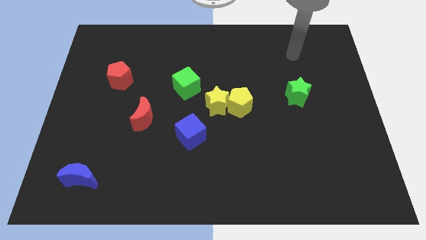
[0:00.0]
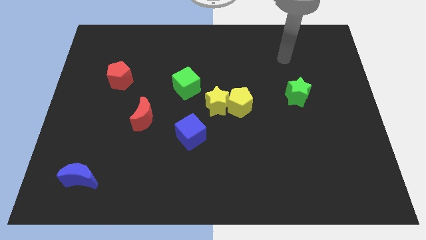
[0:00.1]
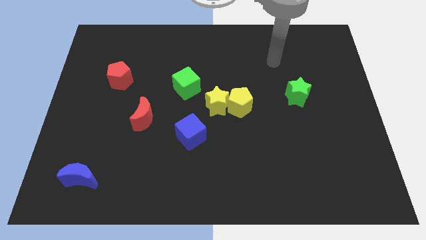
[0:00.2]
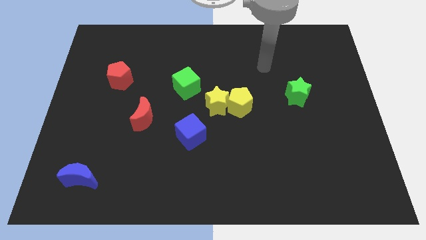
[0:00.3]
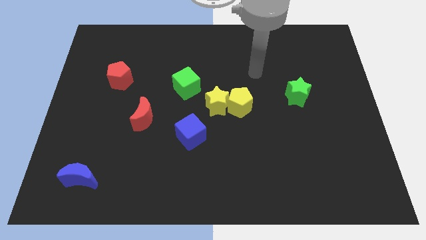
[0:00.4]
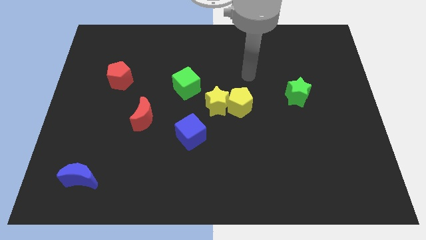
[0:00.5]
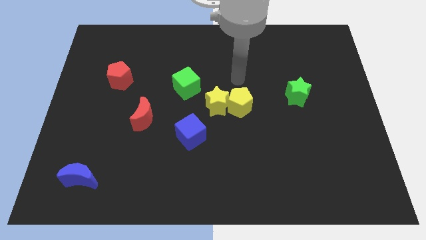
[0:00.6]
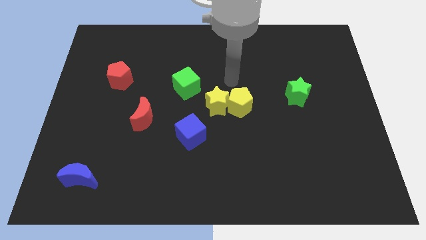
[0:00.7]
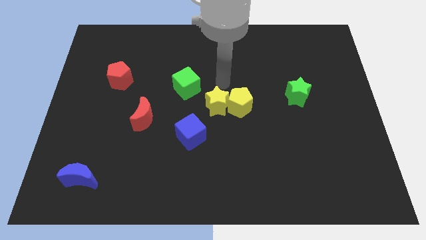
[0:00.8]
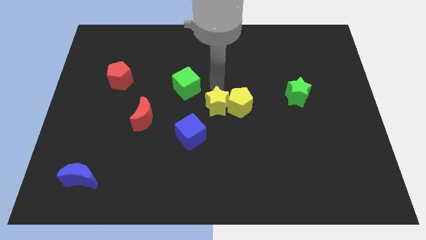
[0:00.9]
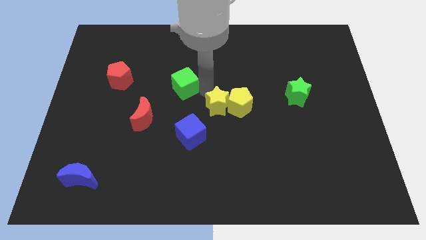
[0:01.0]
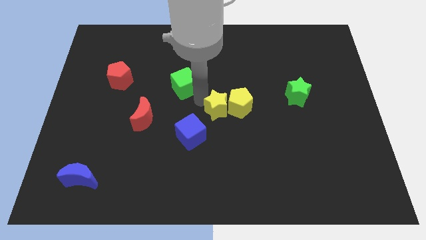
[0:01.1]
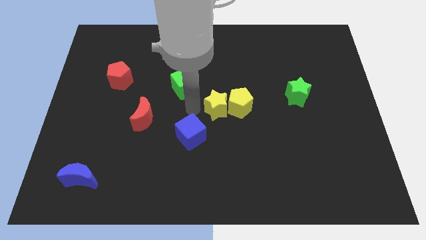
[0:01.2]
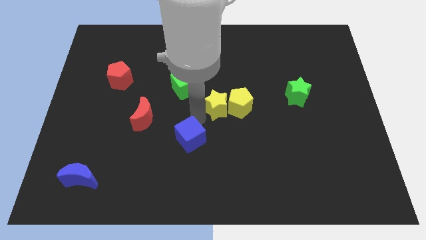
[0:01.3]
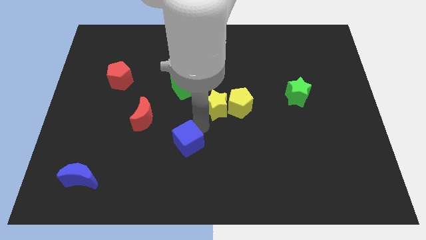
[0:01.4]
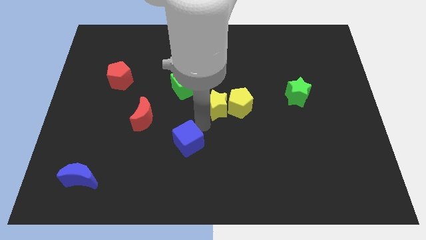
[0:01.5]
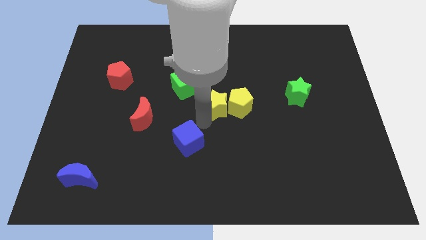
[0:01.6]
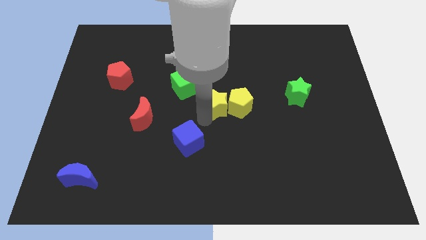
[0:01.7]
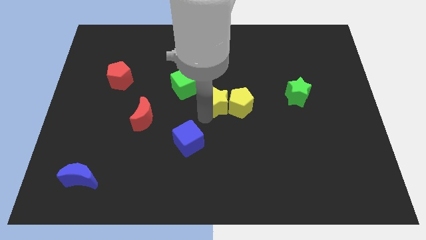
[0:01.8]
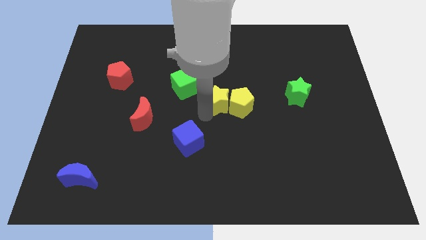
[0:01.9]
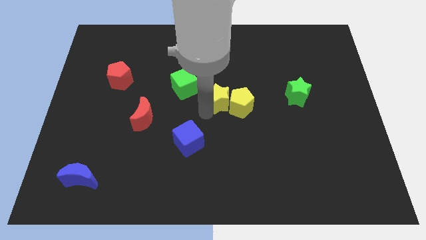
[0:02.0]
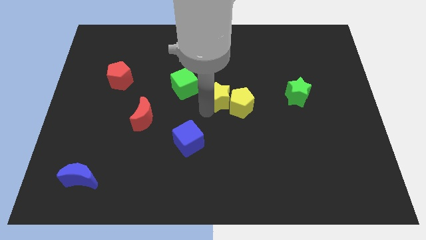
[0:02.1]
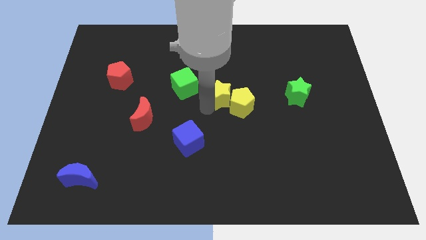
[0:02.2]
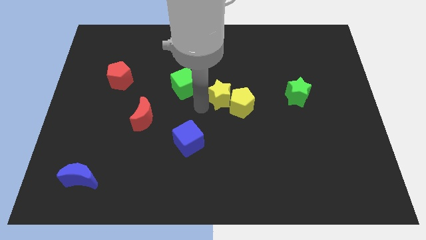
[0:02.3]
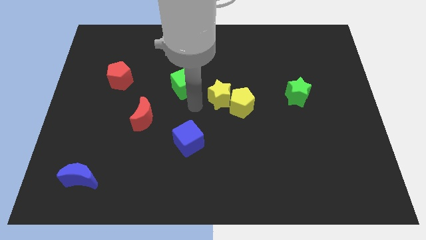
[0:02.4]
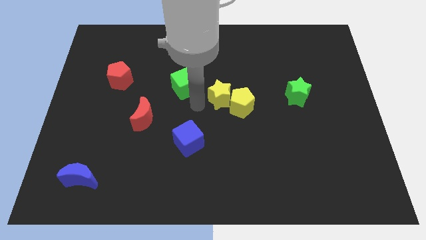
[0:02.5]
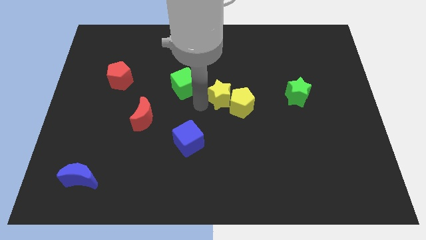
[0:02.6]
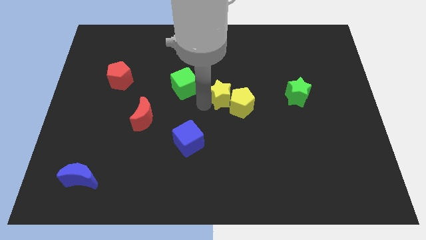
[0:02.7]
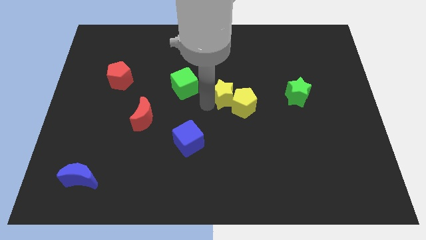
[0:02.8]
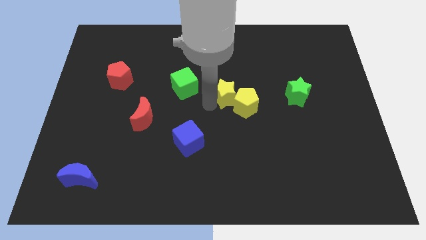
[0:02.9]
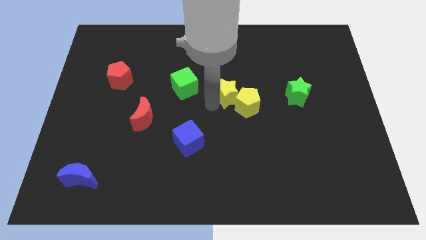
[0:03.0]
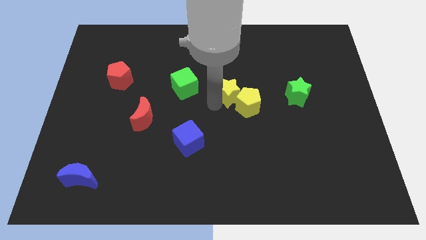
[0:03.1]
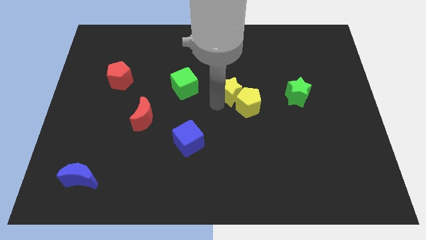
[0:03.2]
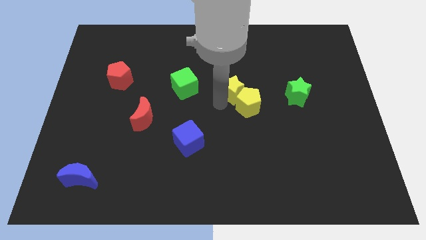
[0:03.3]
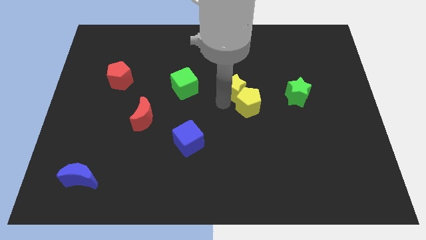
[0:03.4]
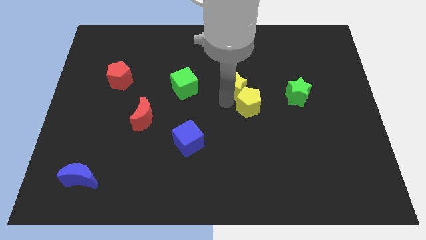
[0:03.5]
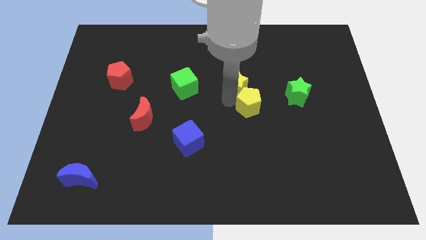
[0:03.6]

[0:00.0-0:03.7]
slide the yellow star diagonally upwards and to the right slightly

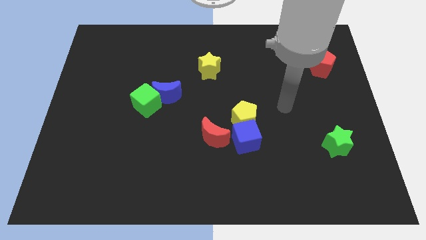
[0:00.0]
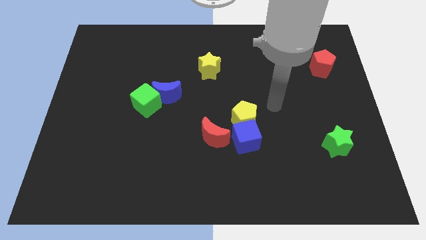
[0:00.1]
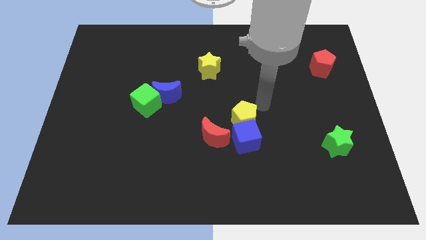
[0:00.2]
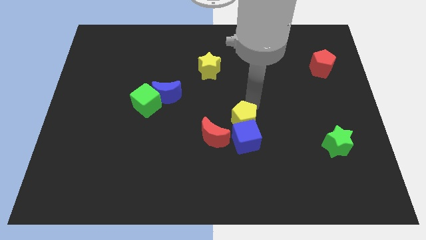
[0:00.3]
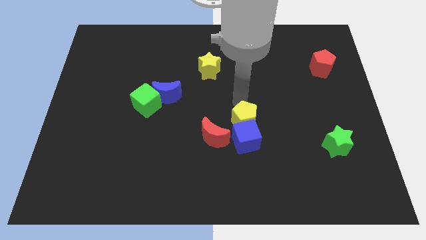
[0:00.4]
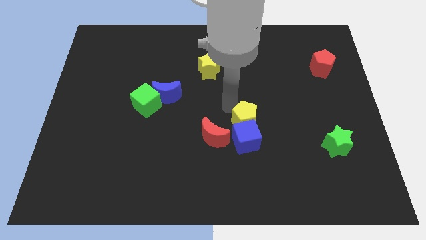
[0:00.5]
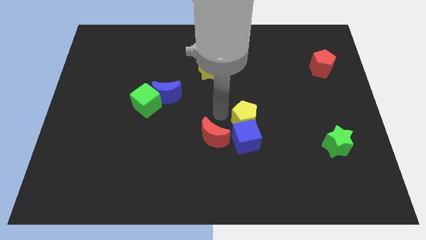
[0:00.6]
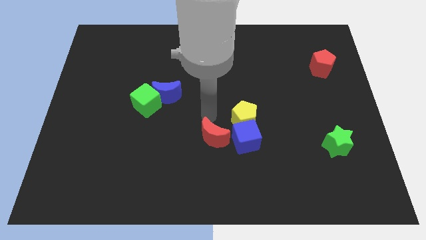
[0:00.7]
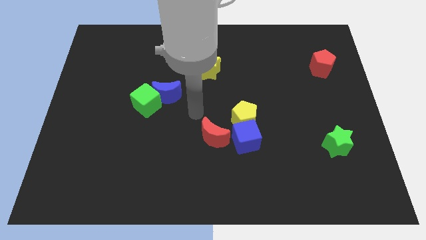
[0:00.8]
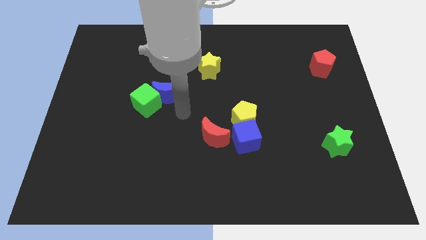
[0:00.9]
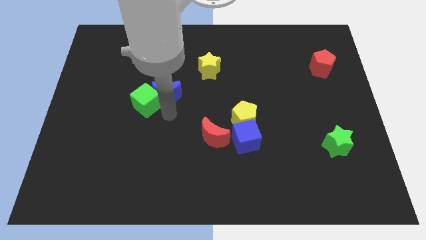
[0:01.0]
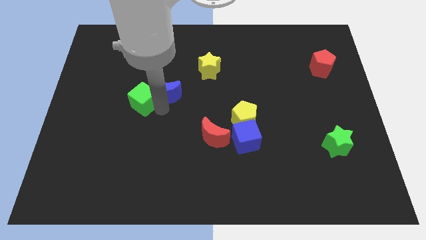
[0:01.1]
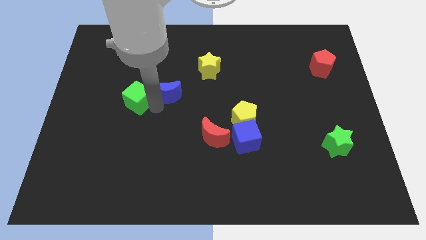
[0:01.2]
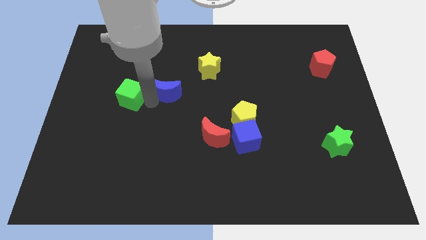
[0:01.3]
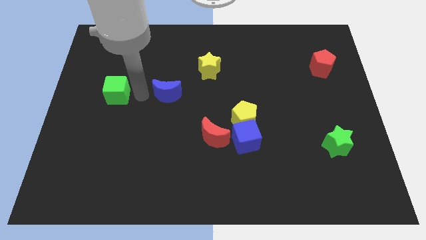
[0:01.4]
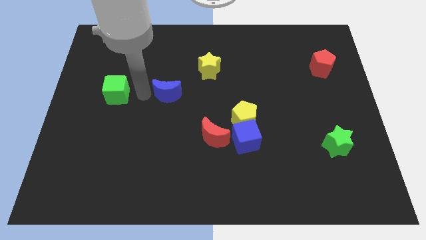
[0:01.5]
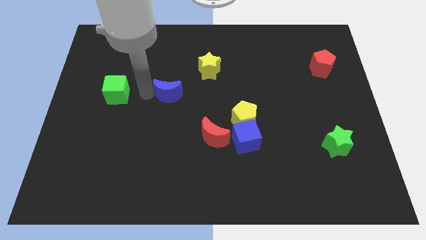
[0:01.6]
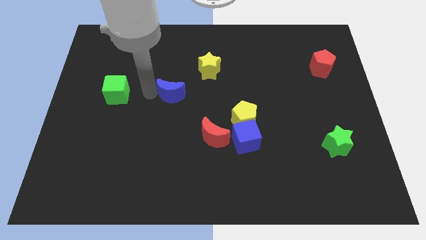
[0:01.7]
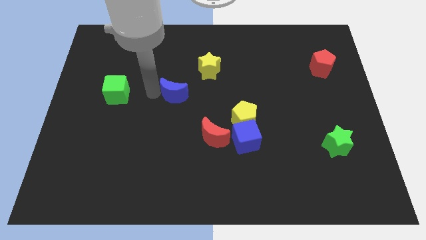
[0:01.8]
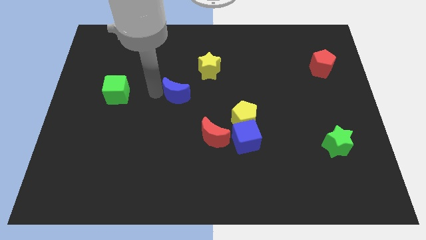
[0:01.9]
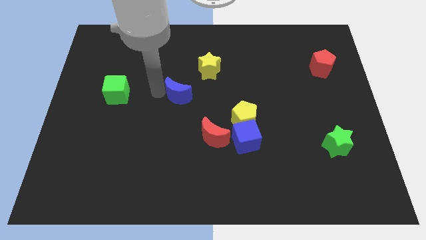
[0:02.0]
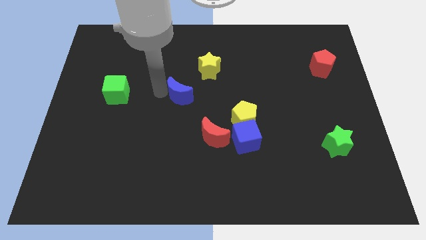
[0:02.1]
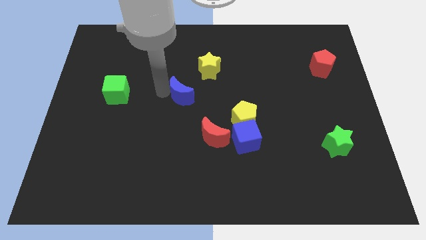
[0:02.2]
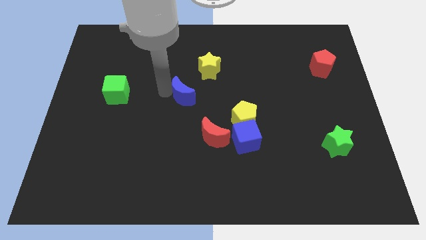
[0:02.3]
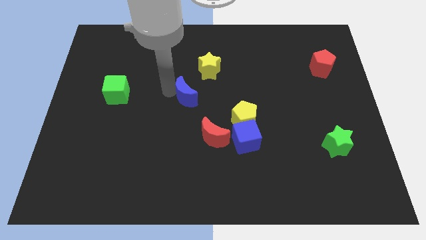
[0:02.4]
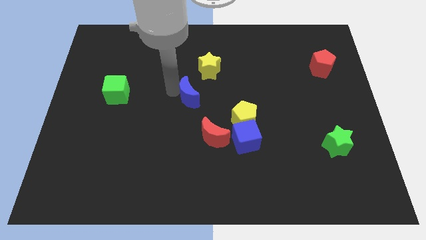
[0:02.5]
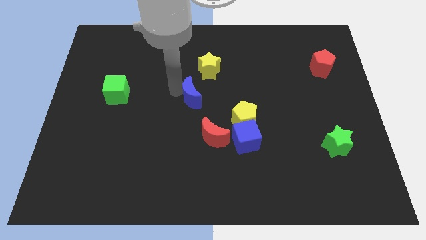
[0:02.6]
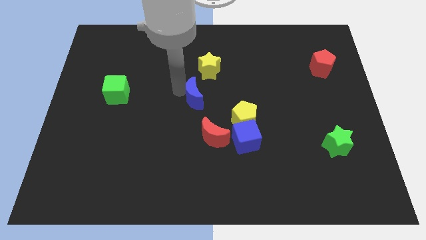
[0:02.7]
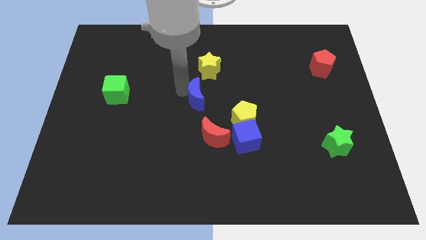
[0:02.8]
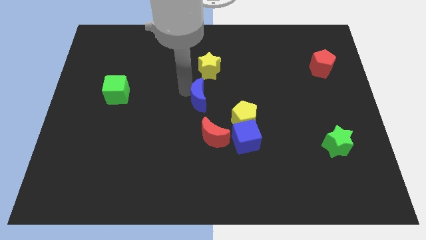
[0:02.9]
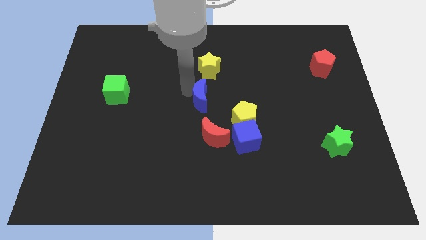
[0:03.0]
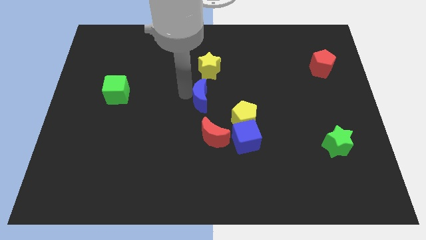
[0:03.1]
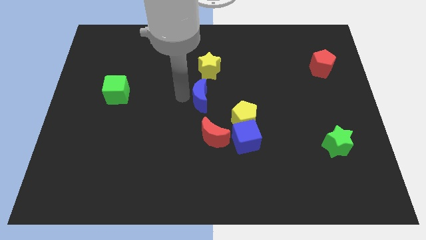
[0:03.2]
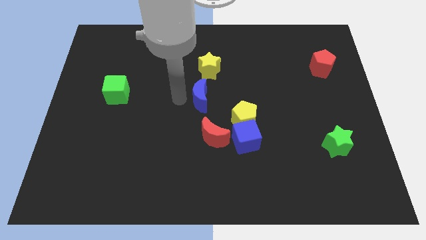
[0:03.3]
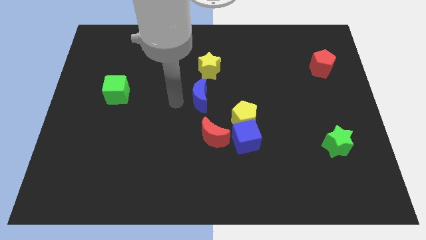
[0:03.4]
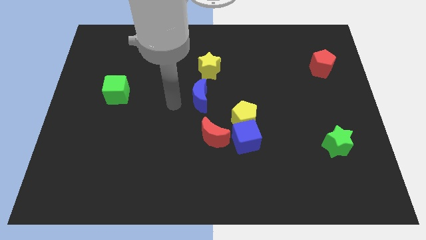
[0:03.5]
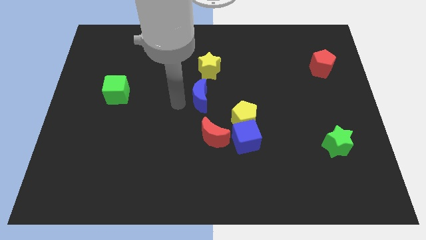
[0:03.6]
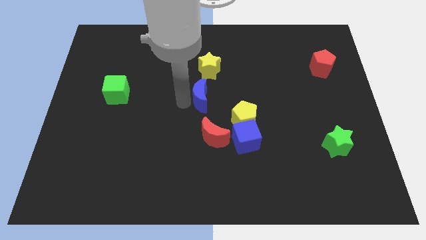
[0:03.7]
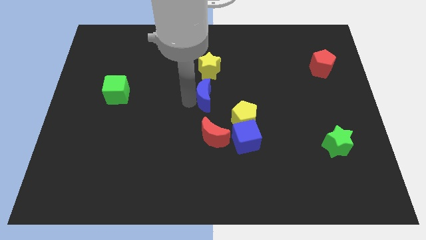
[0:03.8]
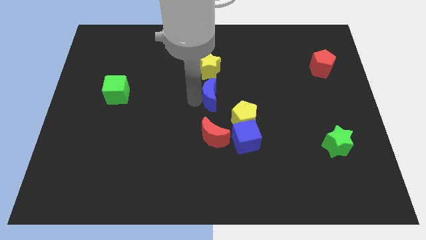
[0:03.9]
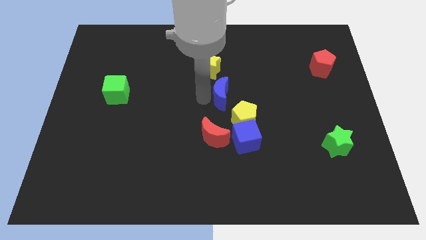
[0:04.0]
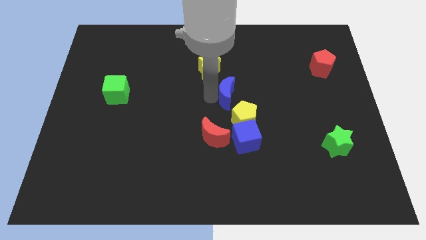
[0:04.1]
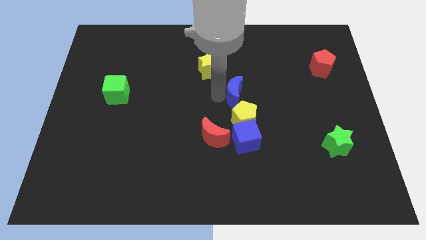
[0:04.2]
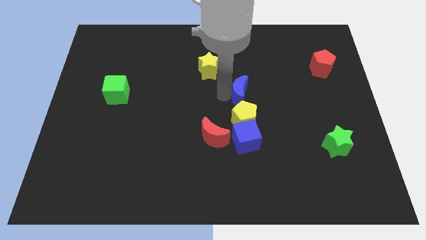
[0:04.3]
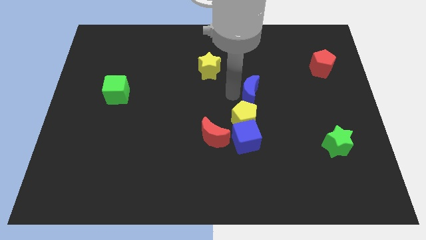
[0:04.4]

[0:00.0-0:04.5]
slide the blue moon to the right
